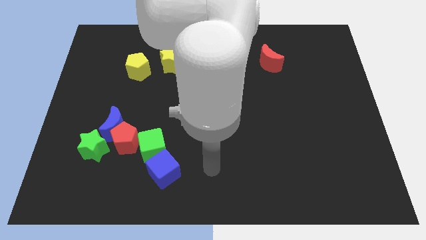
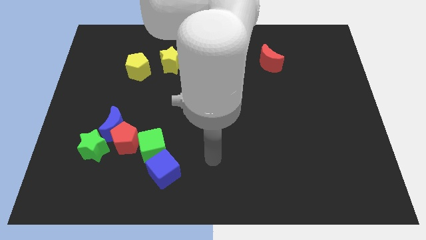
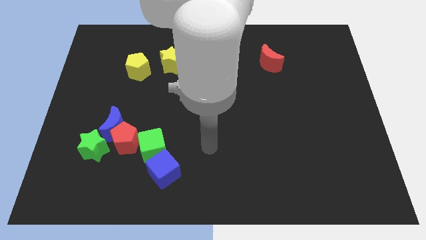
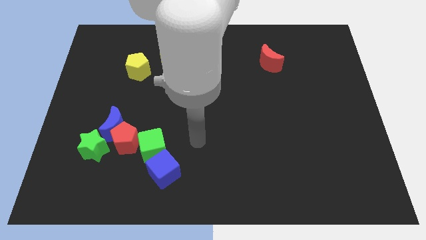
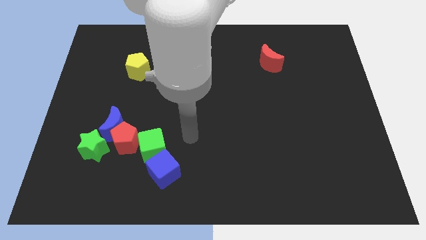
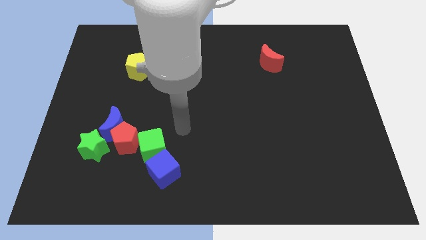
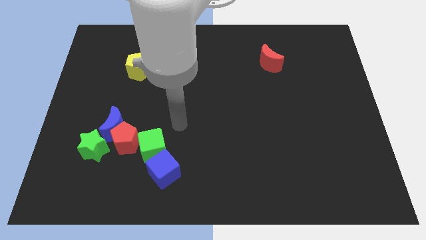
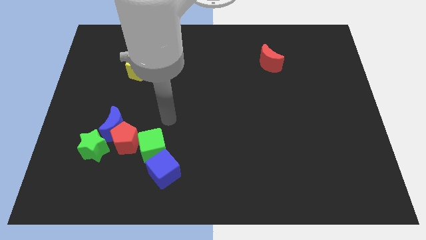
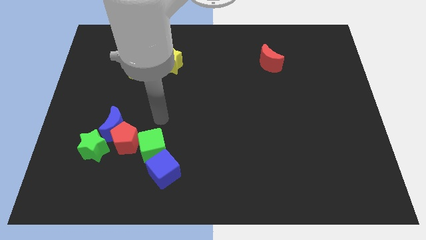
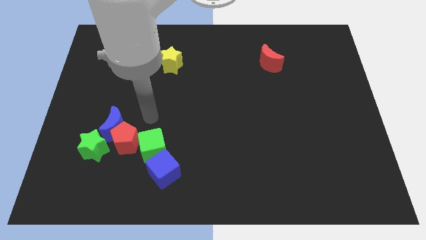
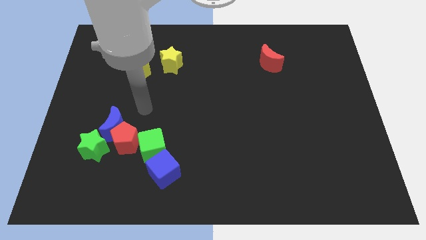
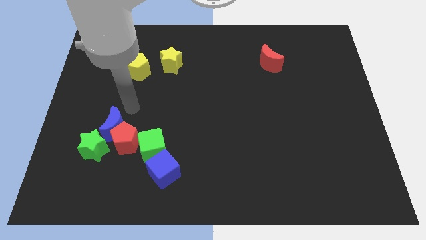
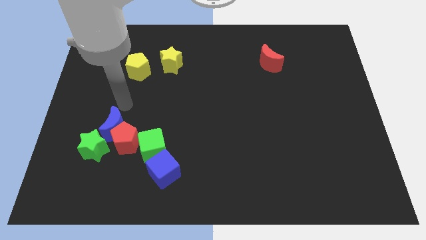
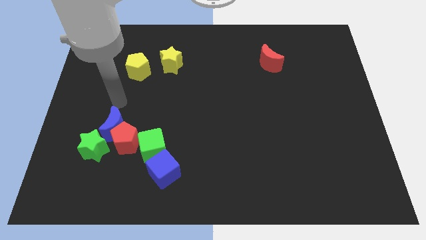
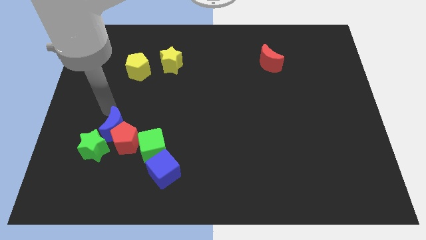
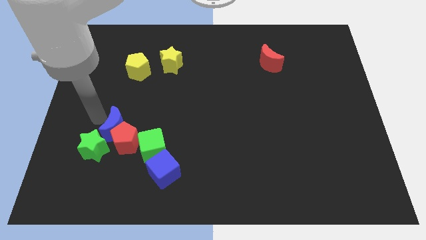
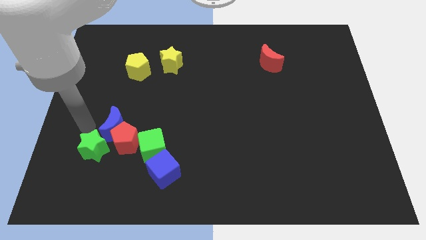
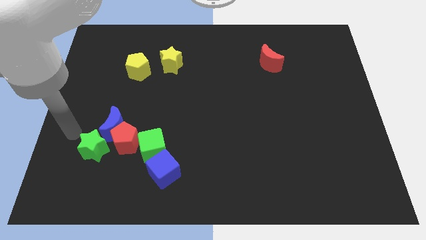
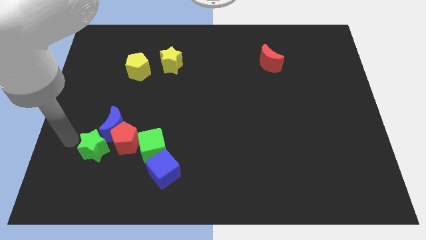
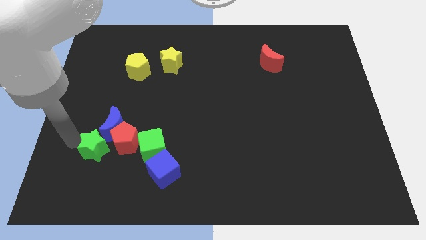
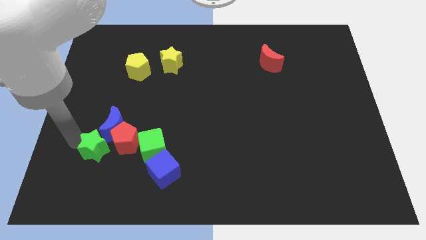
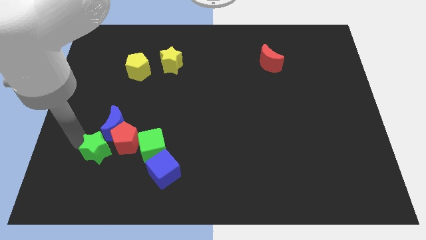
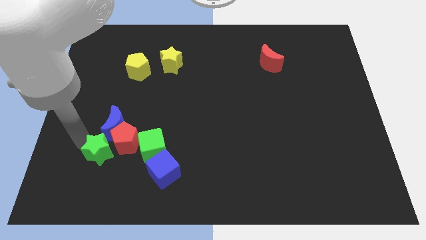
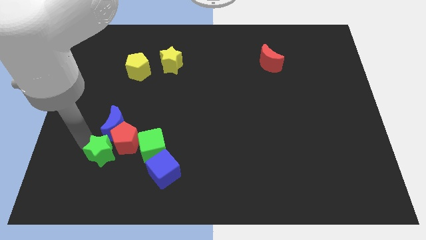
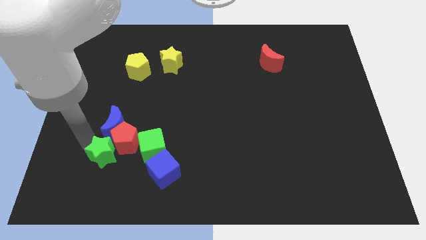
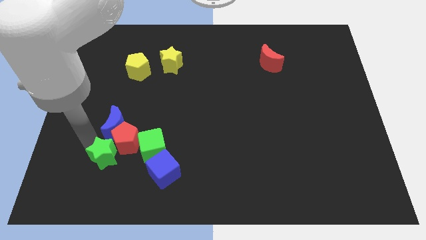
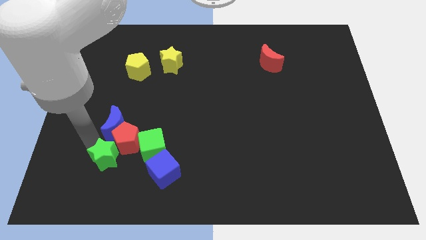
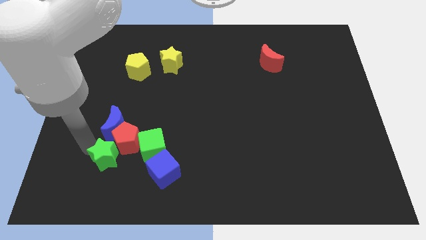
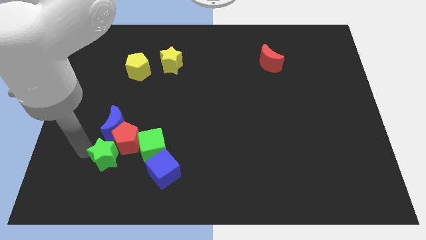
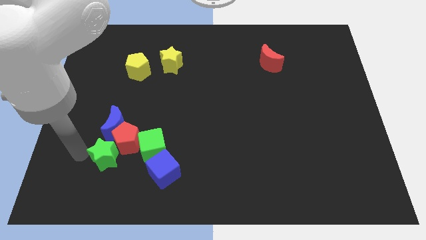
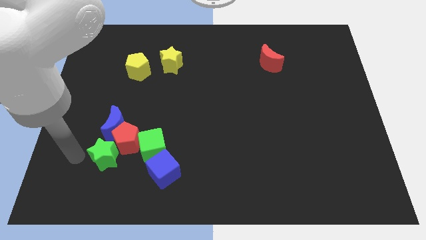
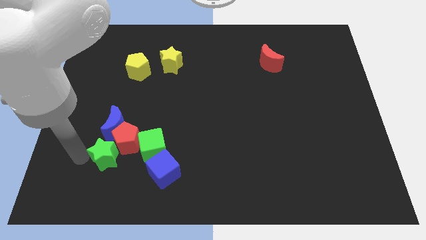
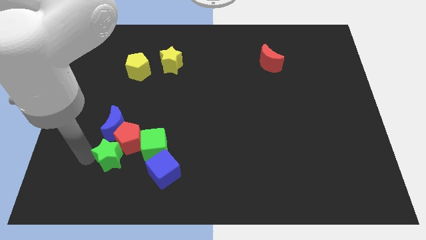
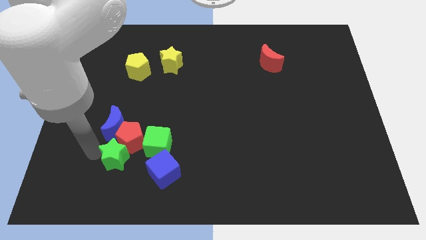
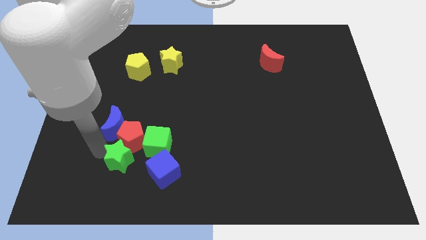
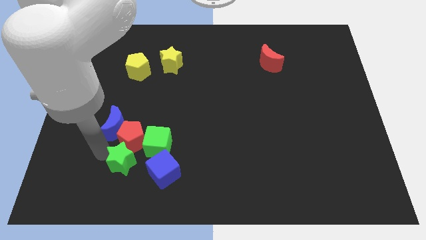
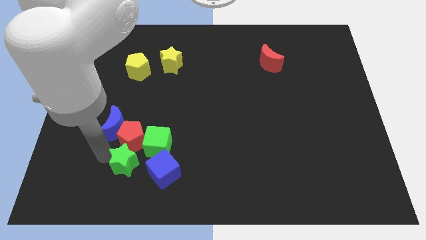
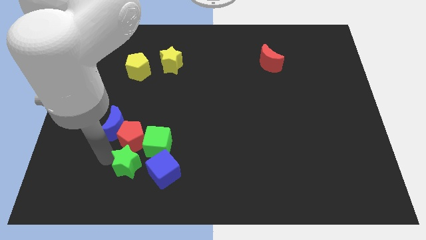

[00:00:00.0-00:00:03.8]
slide the green star to the right slightly

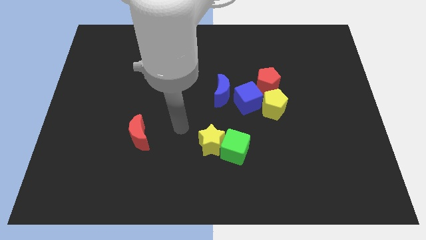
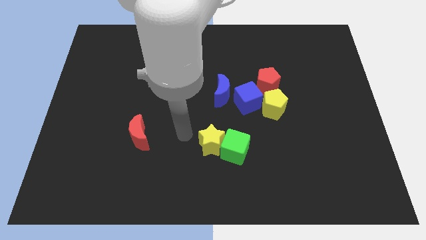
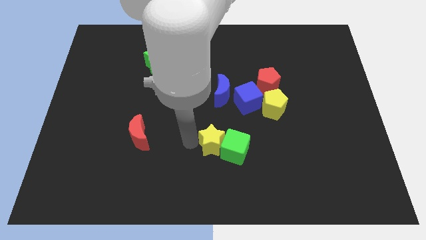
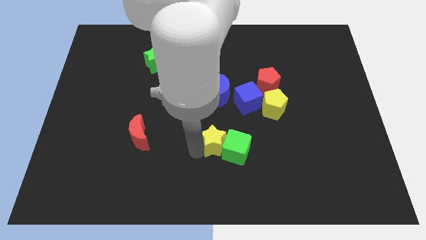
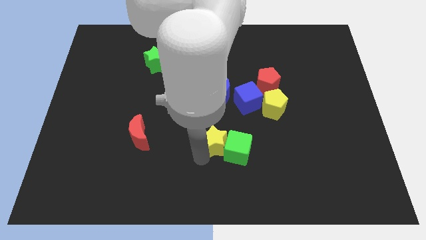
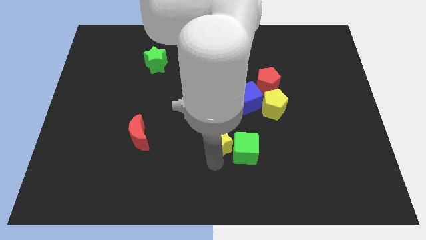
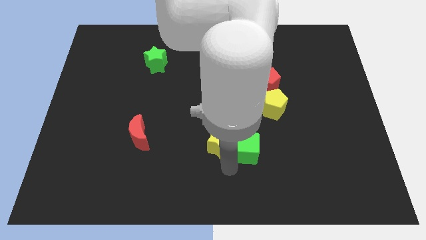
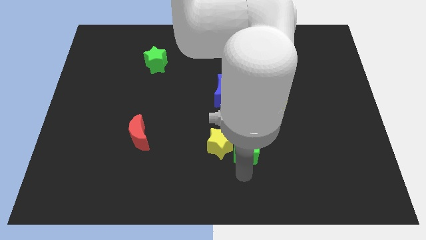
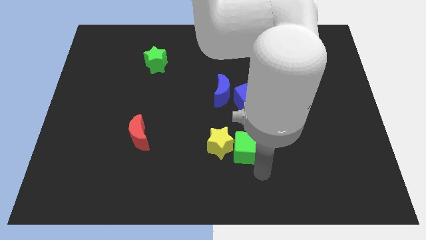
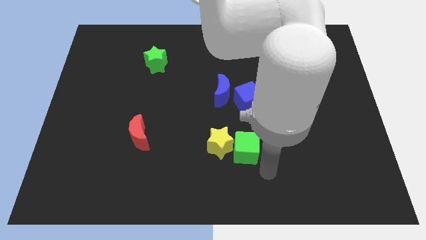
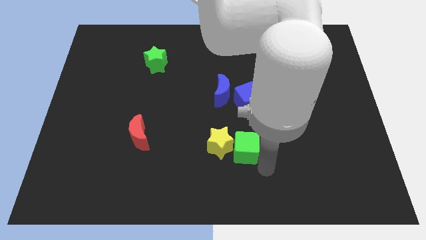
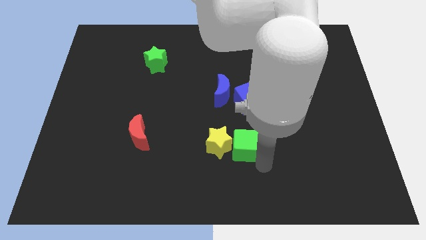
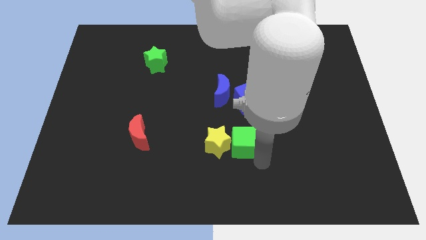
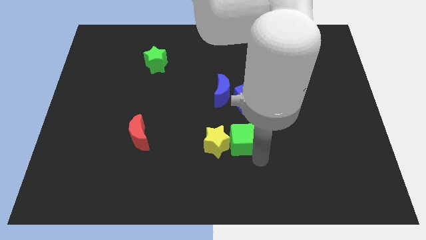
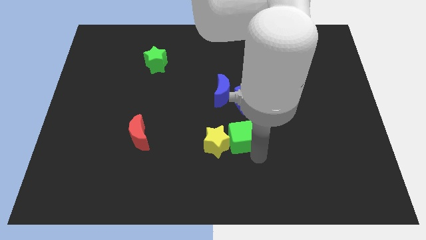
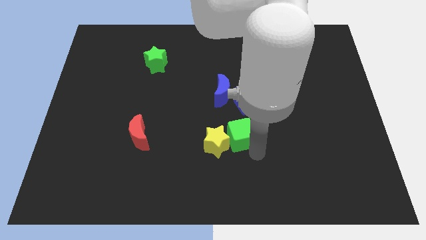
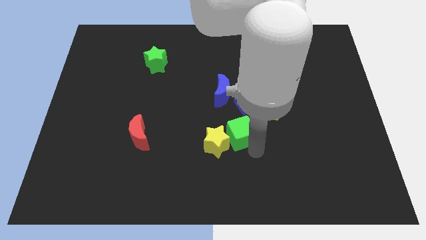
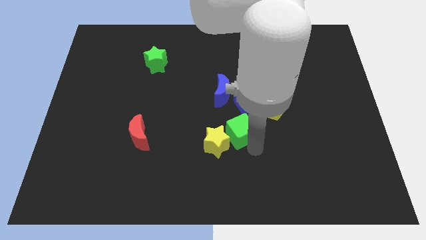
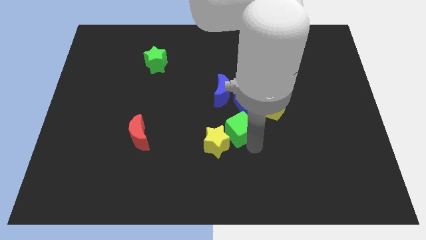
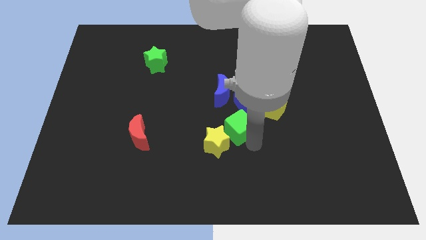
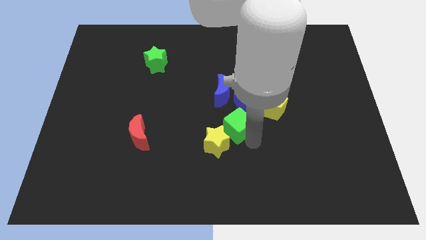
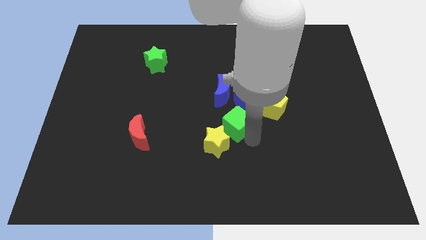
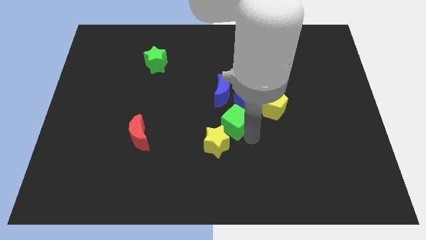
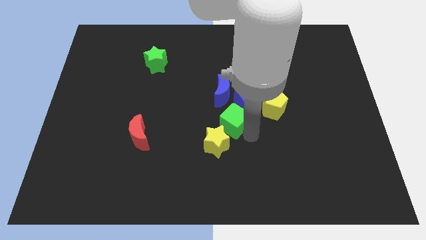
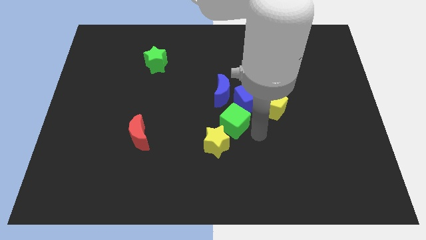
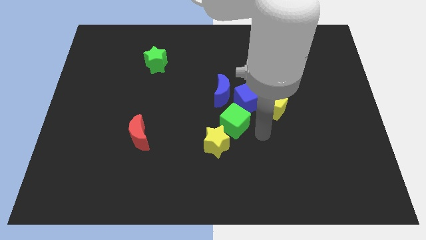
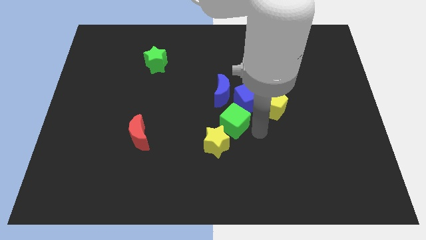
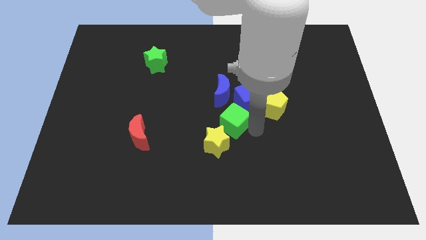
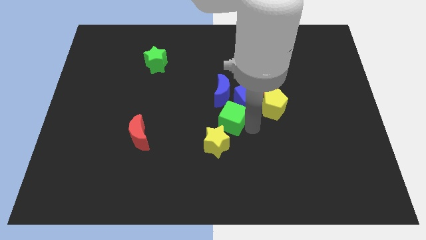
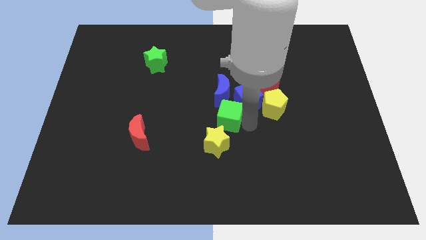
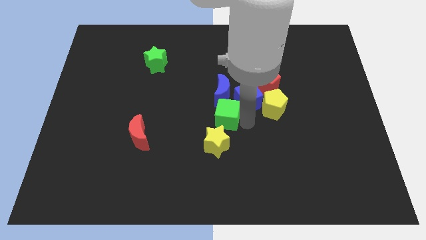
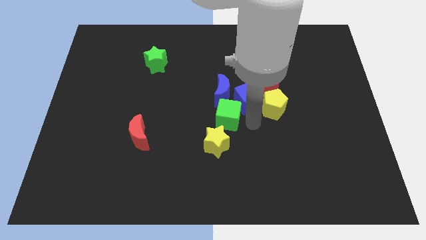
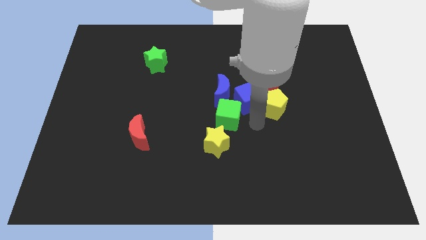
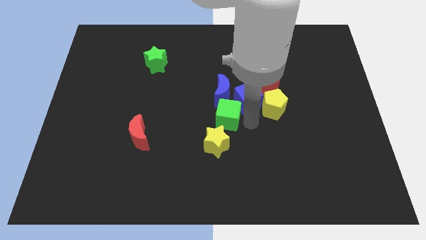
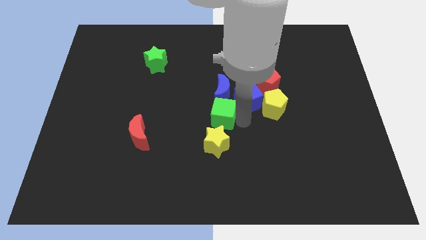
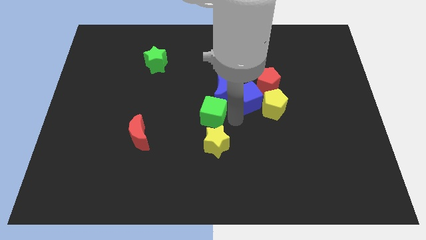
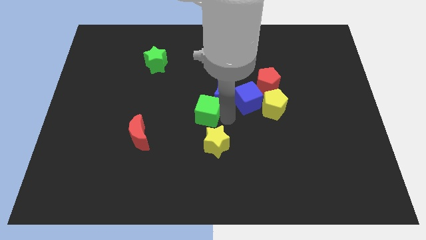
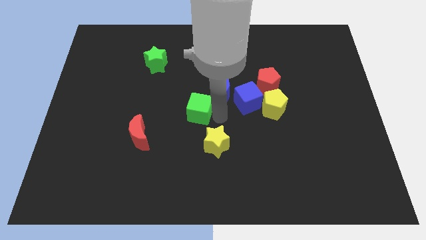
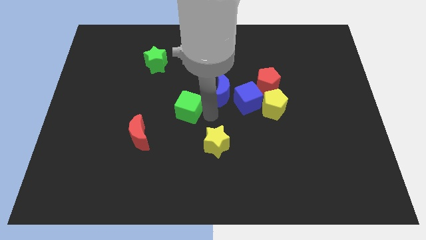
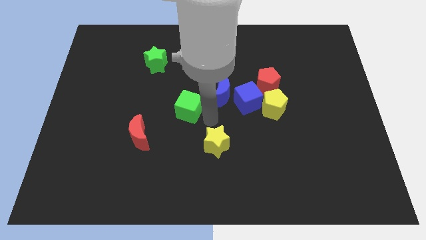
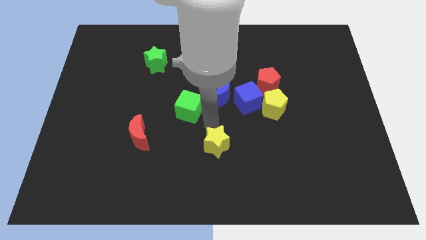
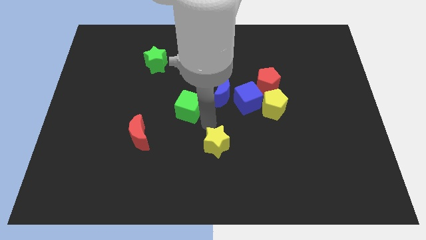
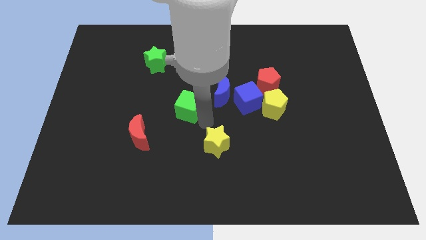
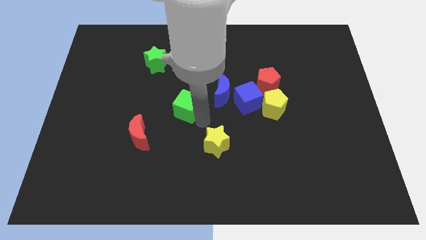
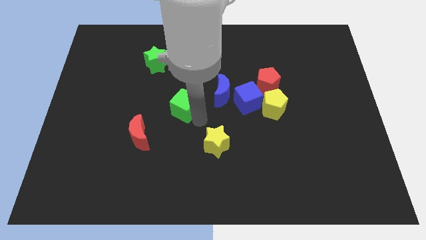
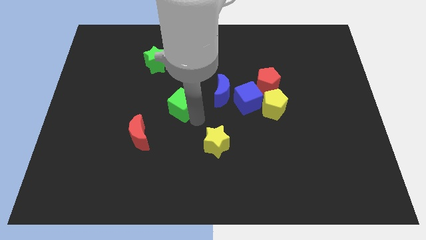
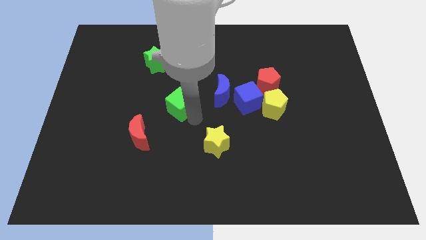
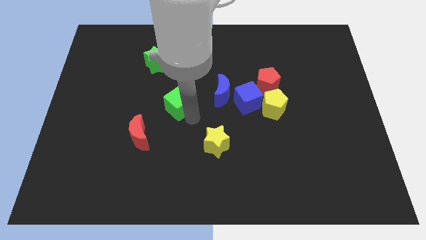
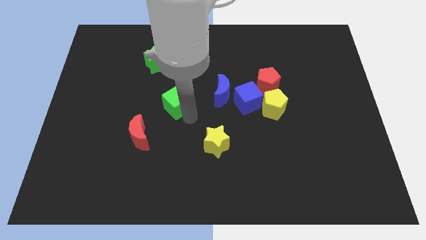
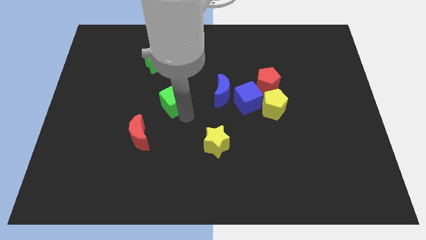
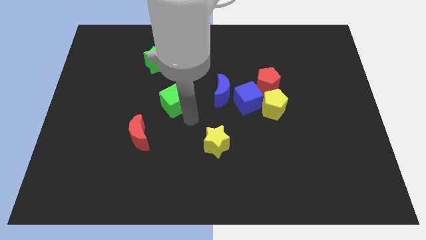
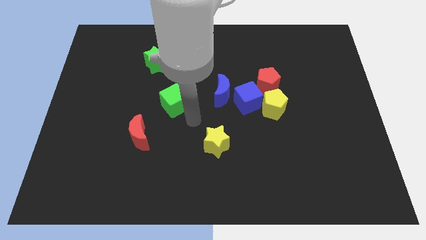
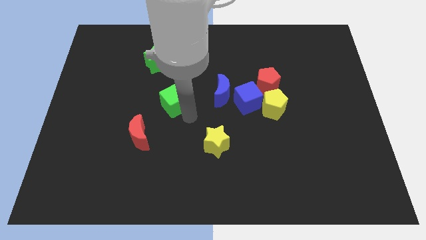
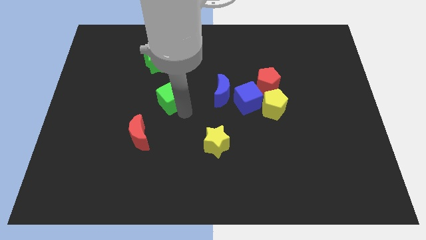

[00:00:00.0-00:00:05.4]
push the green cube up and then to the left
